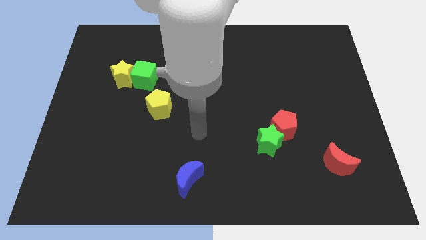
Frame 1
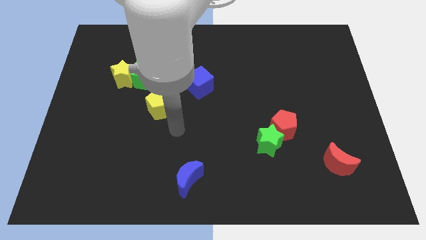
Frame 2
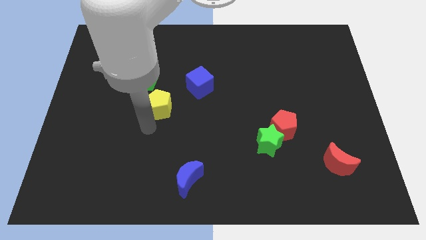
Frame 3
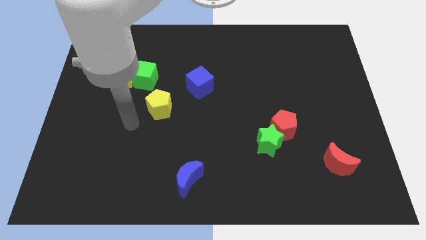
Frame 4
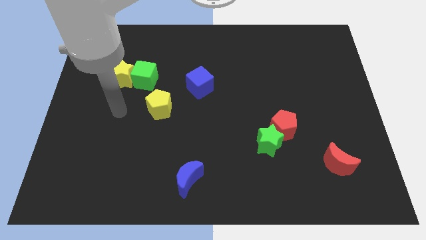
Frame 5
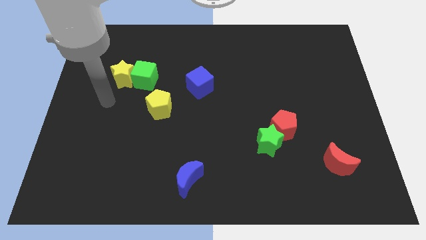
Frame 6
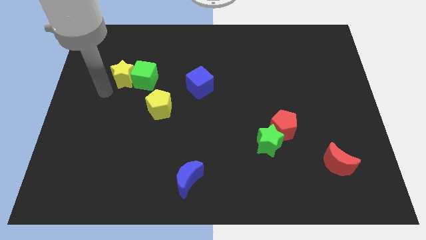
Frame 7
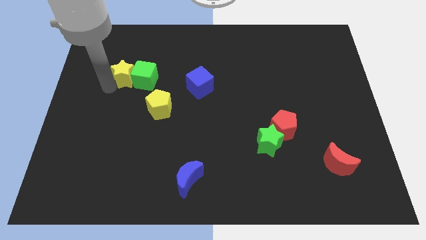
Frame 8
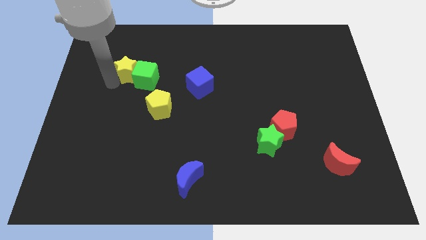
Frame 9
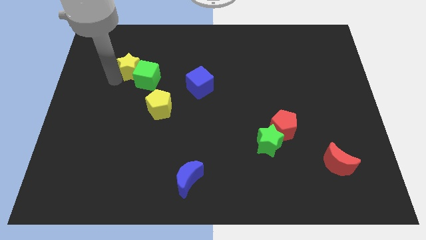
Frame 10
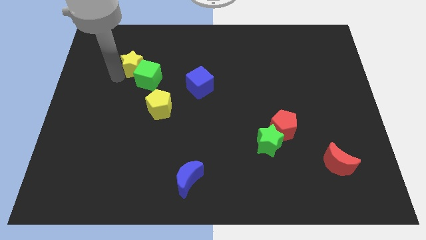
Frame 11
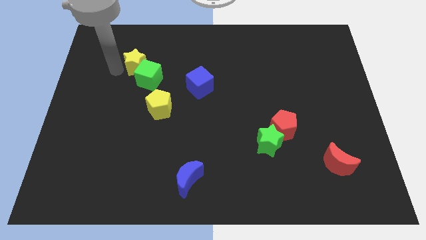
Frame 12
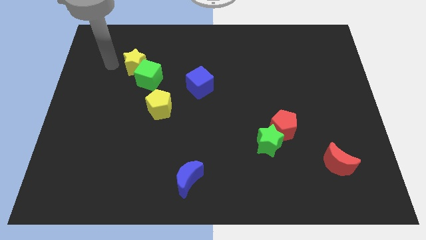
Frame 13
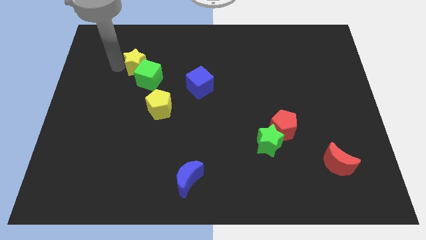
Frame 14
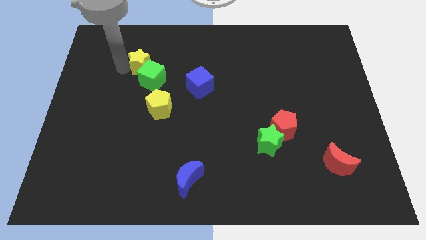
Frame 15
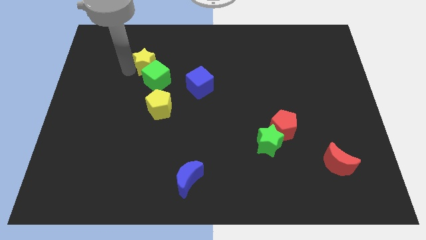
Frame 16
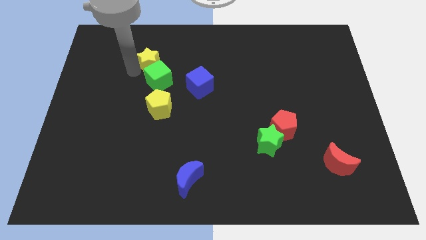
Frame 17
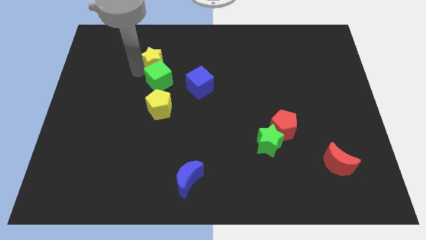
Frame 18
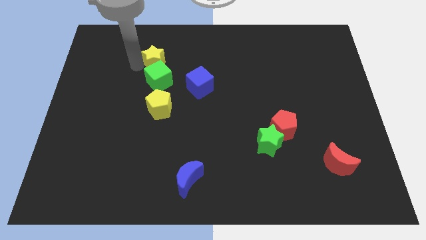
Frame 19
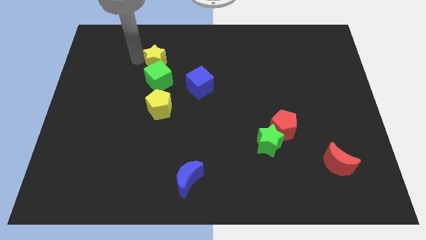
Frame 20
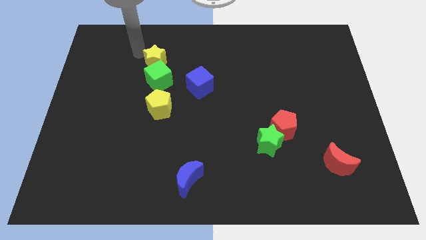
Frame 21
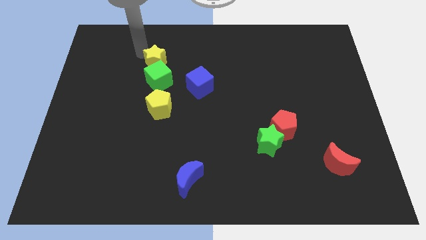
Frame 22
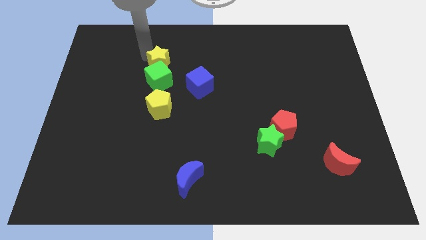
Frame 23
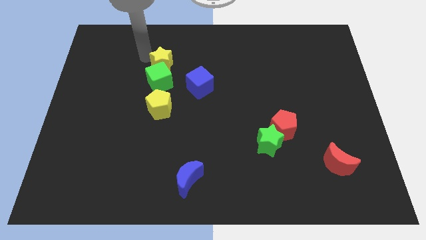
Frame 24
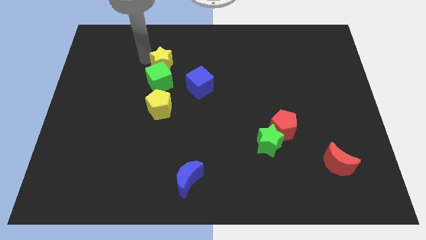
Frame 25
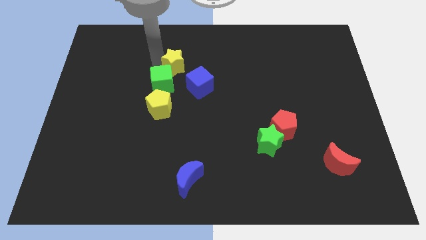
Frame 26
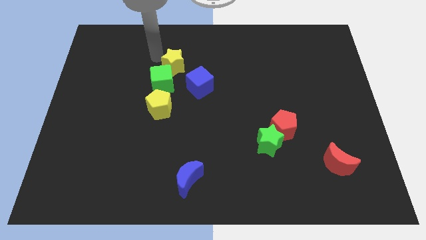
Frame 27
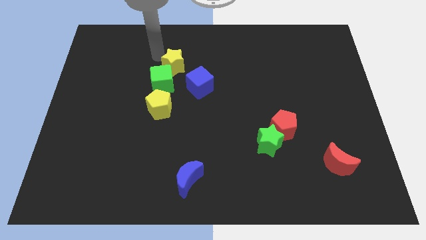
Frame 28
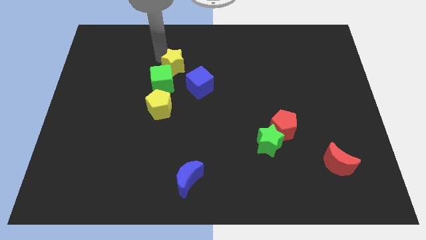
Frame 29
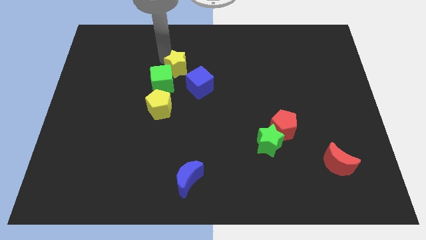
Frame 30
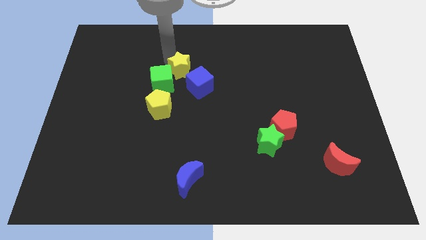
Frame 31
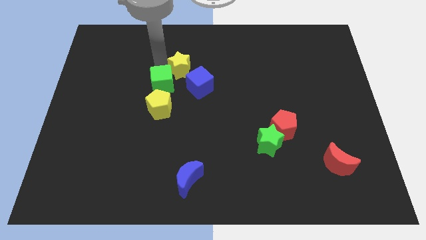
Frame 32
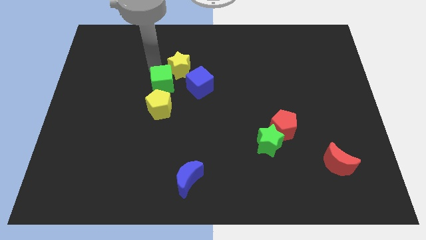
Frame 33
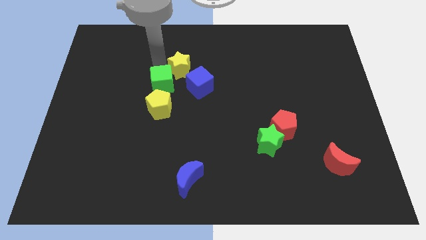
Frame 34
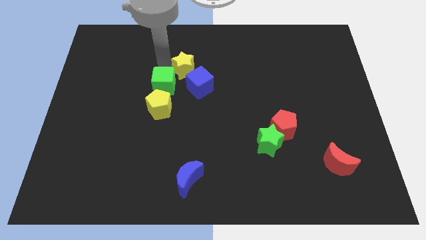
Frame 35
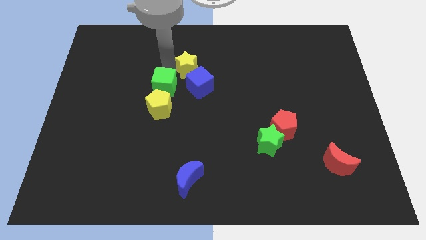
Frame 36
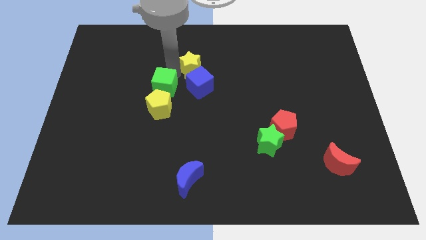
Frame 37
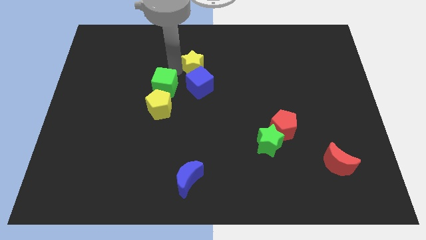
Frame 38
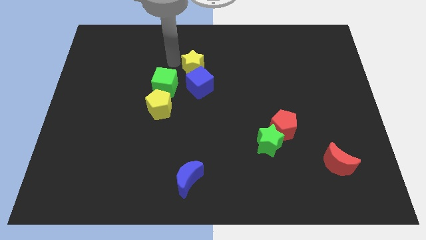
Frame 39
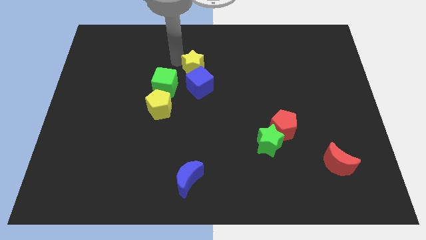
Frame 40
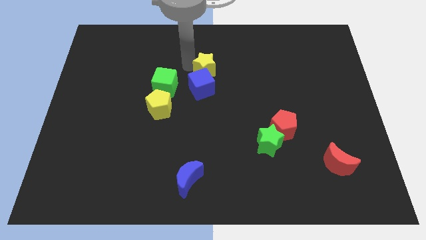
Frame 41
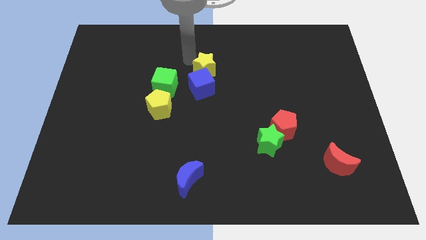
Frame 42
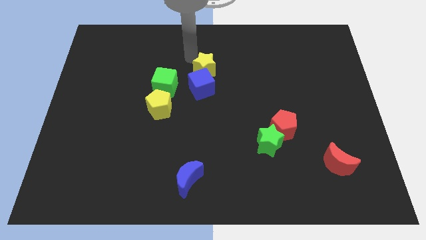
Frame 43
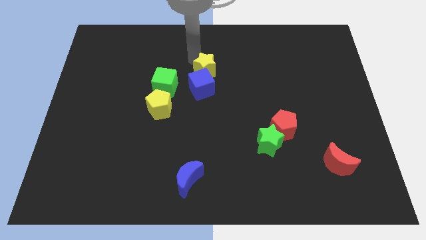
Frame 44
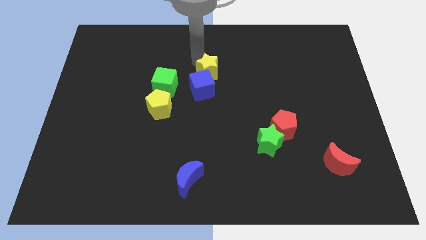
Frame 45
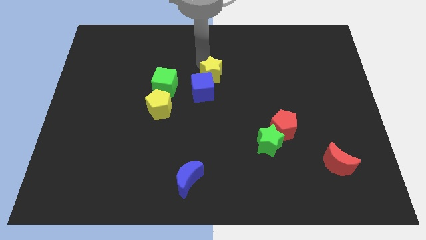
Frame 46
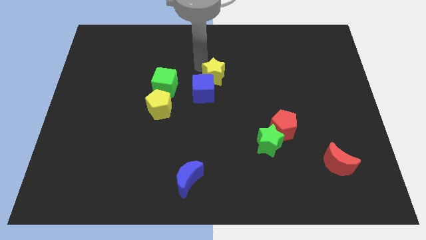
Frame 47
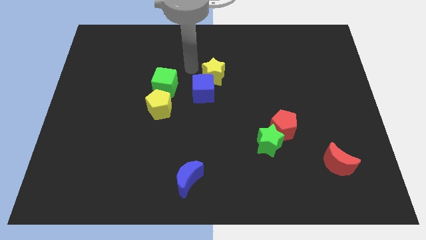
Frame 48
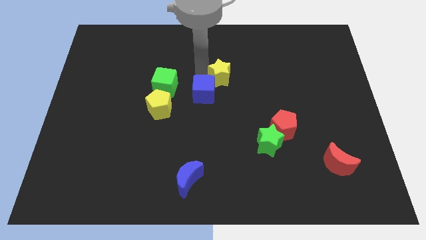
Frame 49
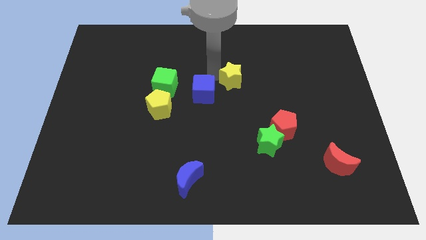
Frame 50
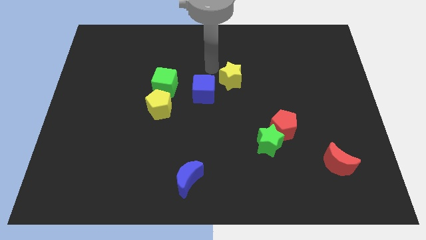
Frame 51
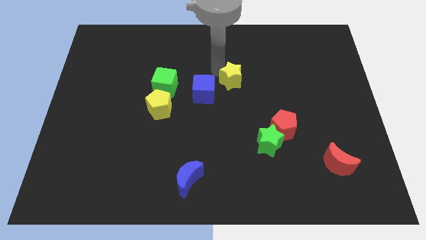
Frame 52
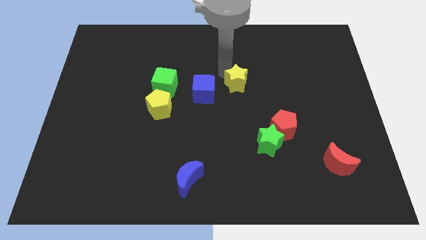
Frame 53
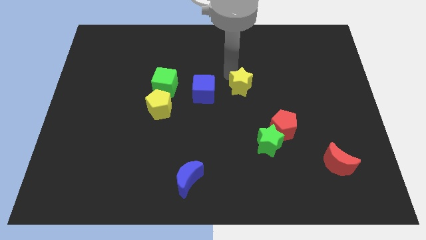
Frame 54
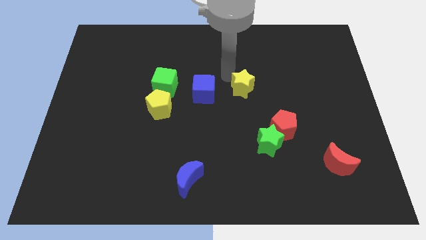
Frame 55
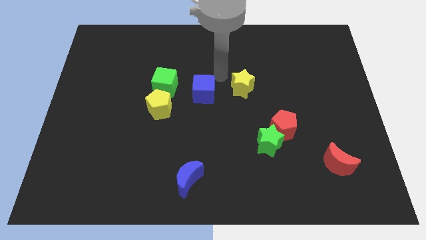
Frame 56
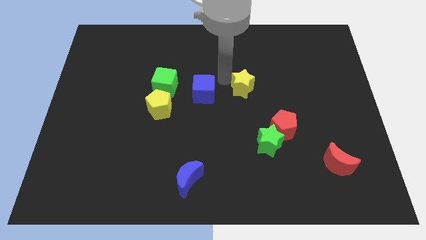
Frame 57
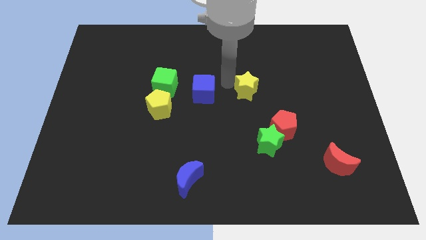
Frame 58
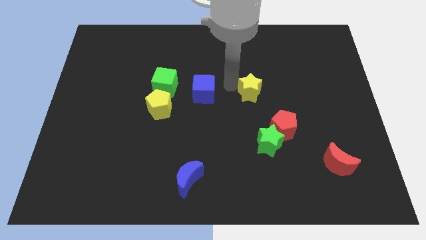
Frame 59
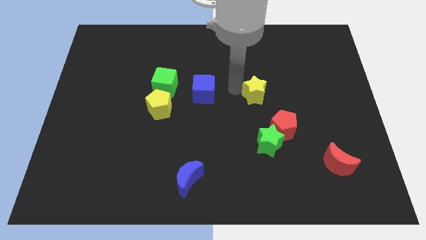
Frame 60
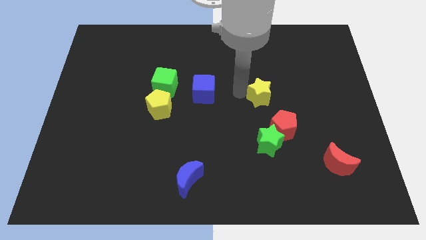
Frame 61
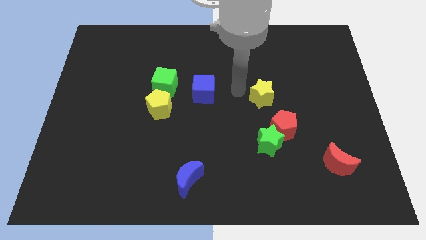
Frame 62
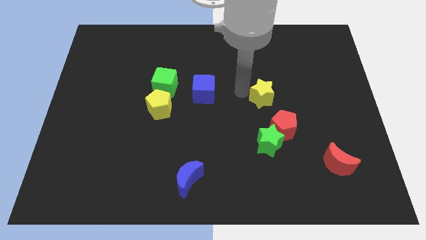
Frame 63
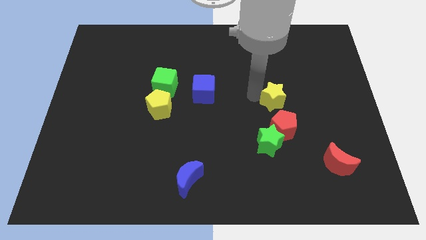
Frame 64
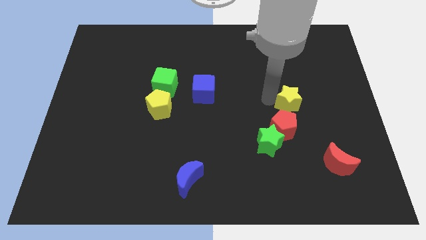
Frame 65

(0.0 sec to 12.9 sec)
put the yellow star to the top right of the red pentagon

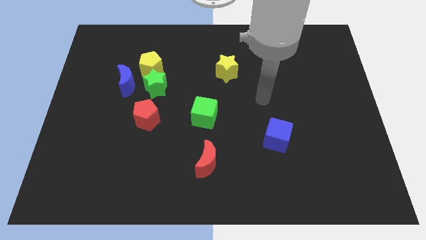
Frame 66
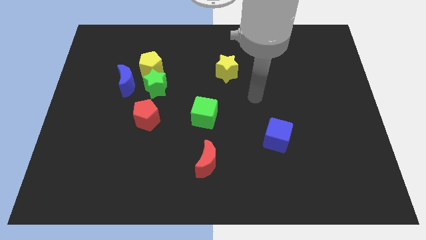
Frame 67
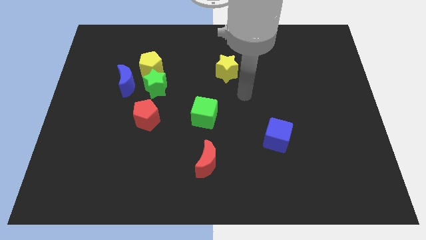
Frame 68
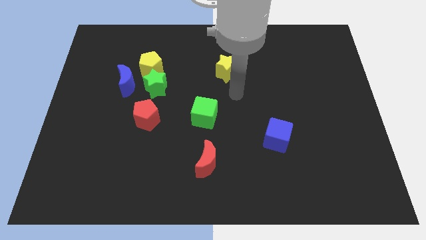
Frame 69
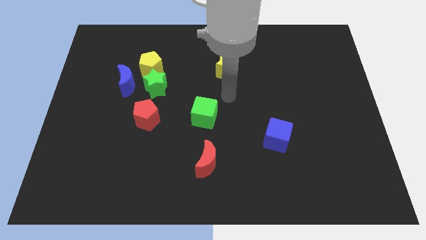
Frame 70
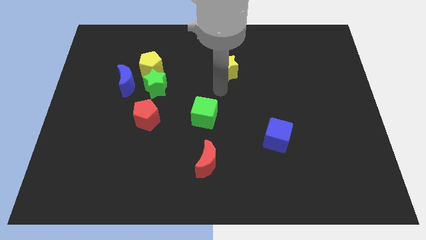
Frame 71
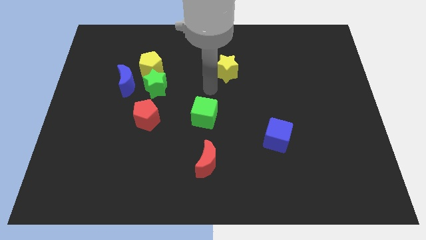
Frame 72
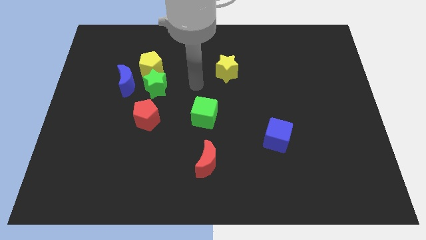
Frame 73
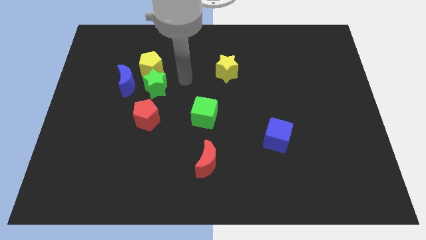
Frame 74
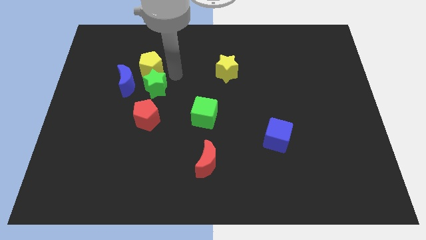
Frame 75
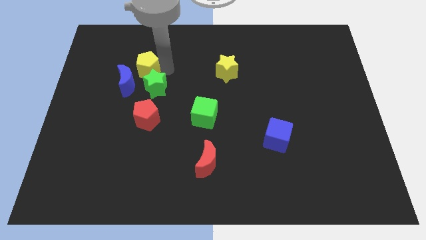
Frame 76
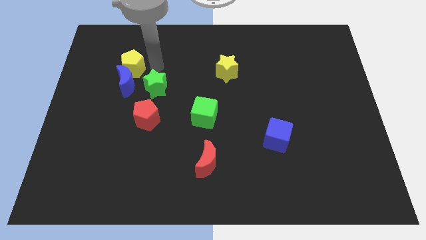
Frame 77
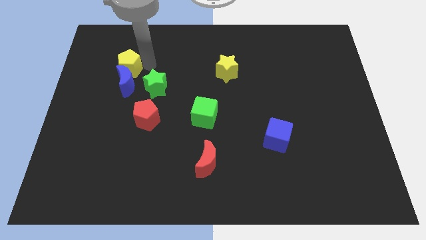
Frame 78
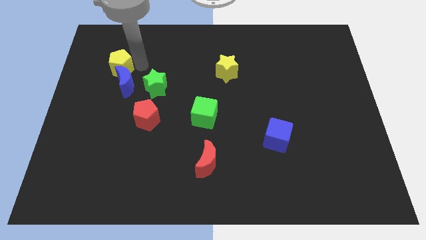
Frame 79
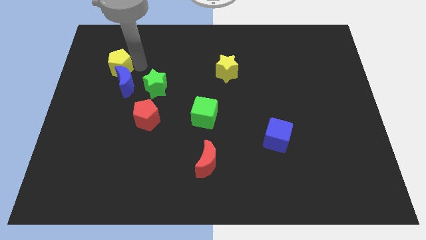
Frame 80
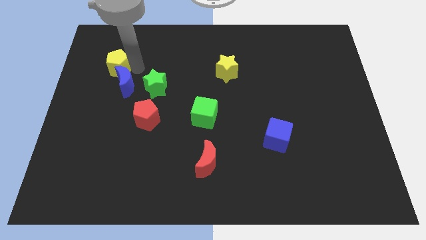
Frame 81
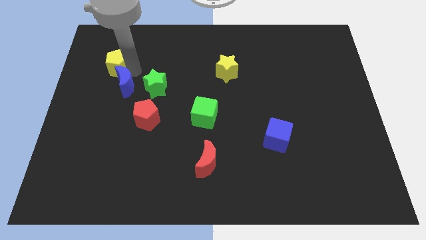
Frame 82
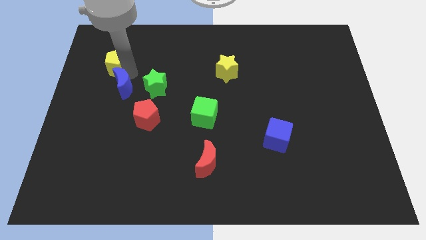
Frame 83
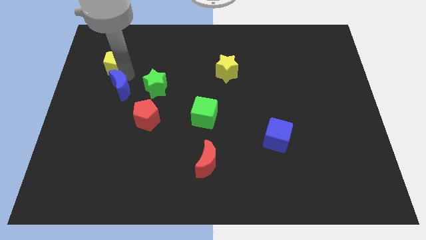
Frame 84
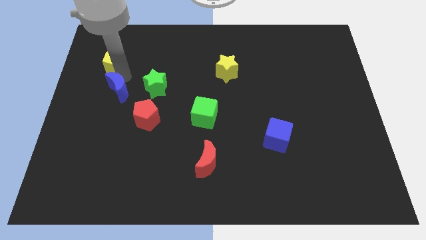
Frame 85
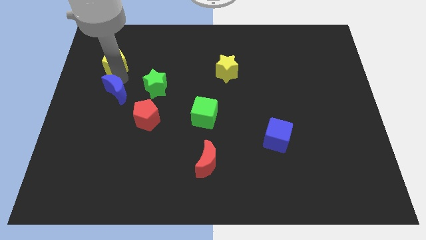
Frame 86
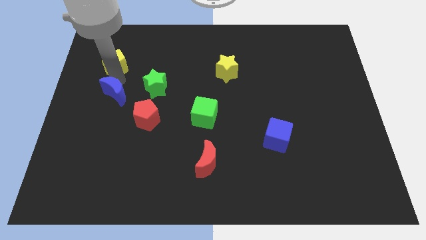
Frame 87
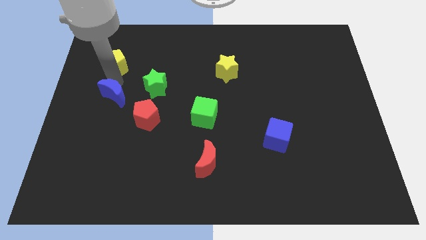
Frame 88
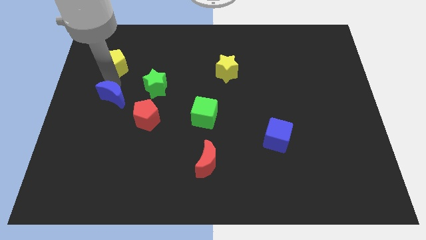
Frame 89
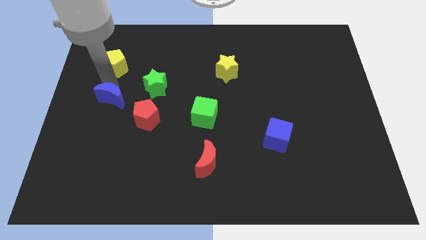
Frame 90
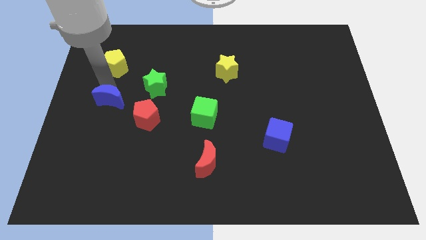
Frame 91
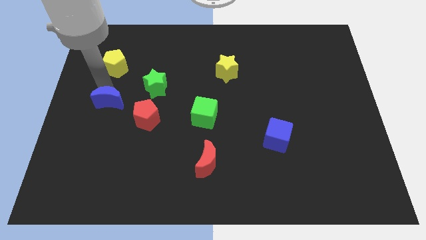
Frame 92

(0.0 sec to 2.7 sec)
put the blue moon to the left of the red pentagon
